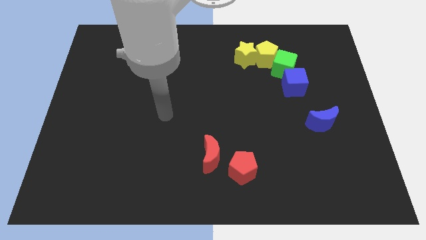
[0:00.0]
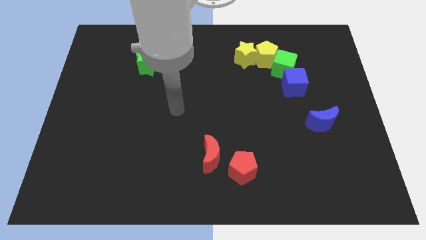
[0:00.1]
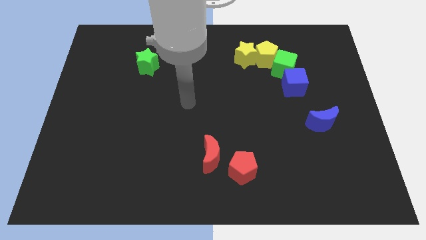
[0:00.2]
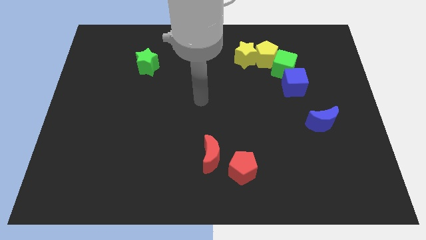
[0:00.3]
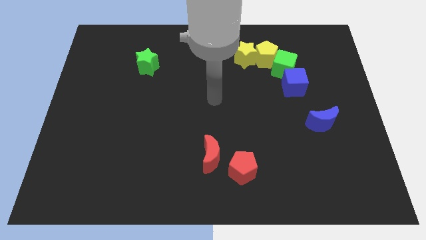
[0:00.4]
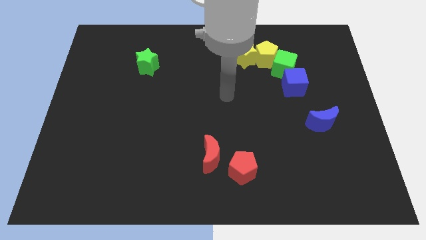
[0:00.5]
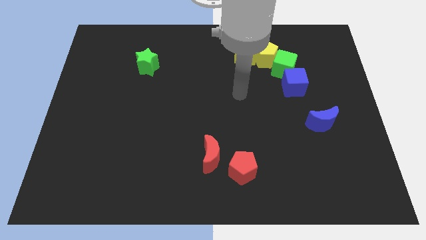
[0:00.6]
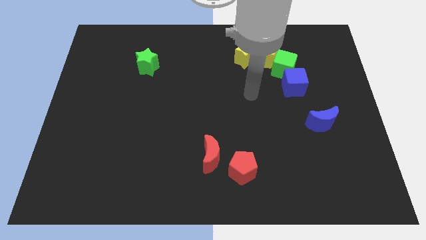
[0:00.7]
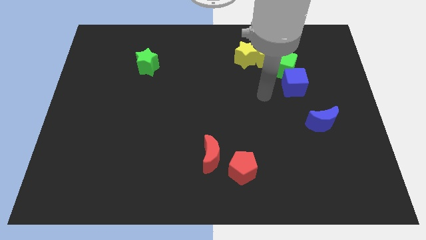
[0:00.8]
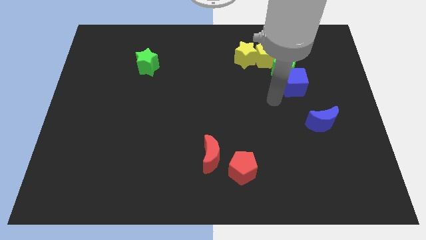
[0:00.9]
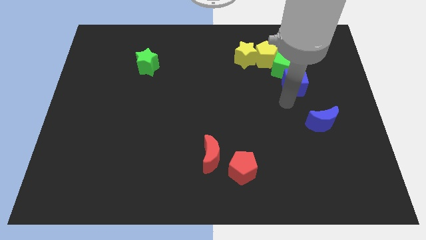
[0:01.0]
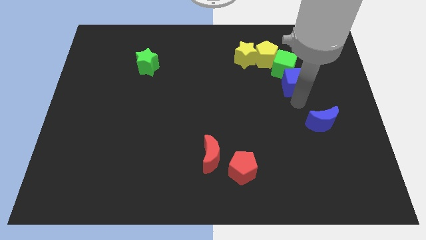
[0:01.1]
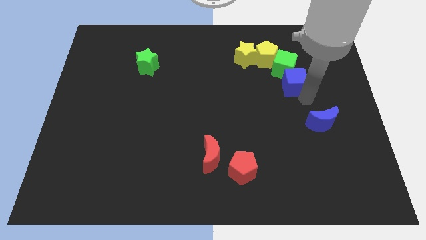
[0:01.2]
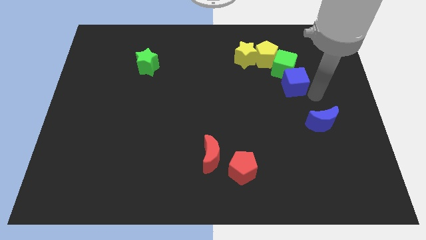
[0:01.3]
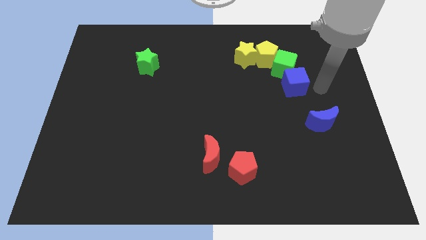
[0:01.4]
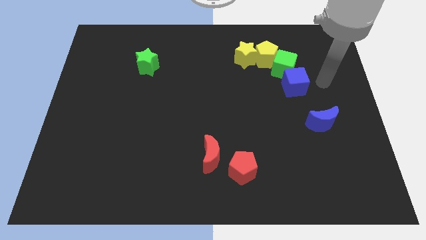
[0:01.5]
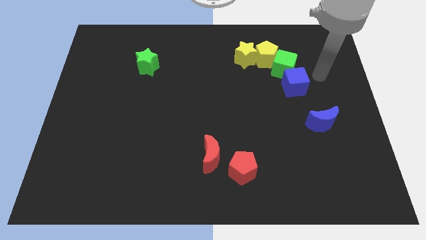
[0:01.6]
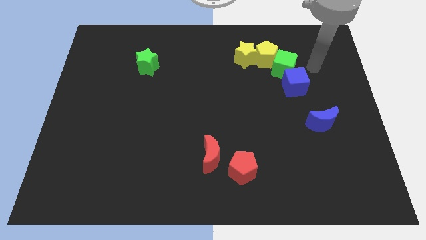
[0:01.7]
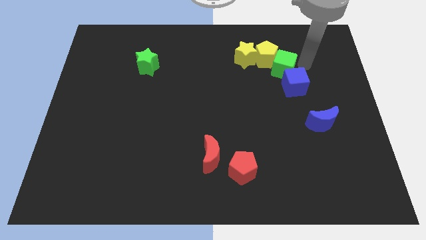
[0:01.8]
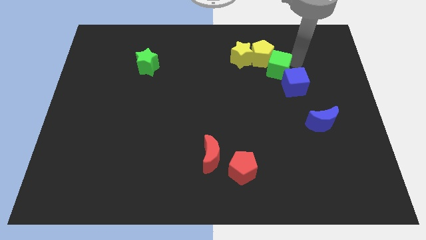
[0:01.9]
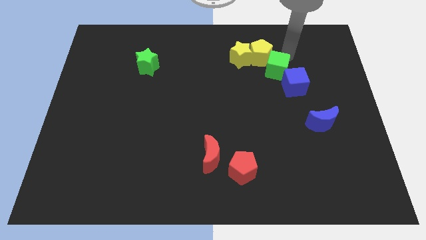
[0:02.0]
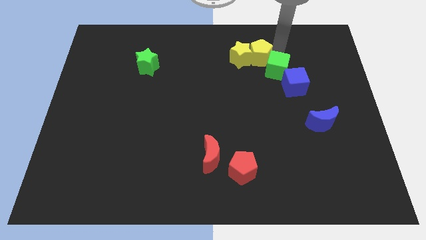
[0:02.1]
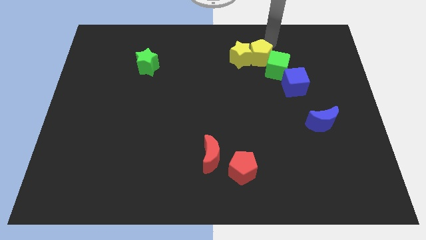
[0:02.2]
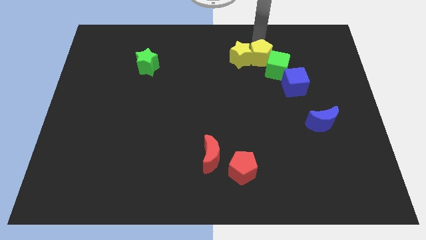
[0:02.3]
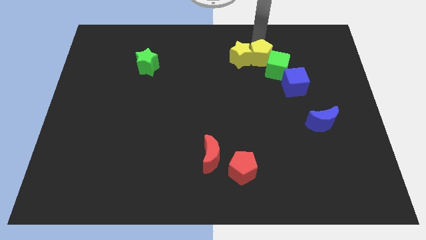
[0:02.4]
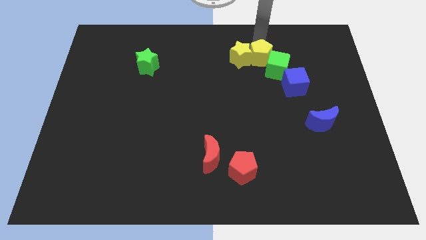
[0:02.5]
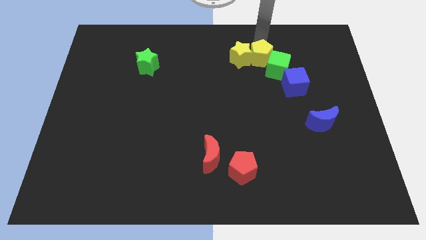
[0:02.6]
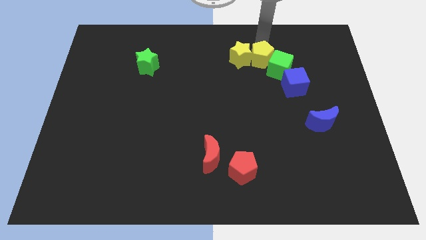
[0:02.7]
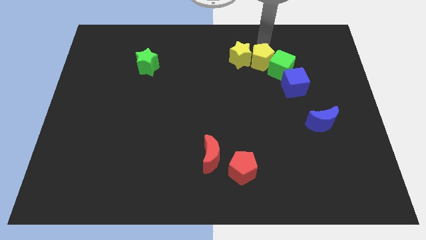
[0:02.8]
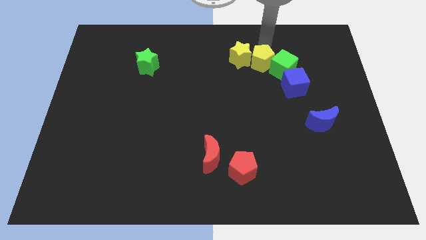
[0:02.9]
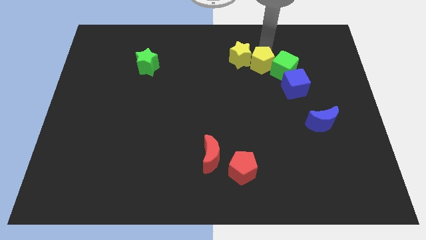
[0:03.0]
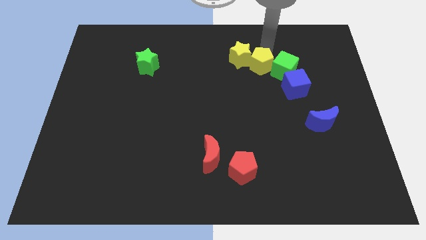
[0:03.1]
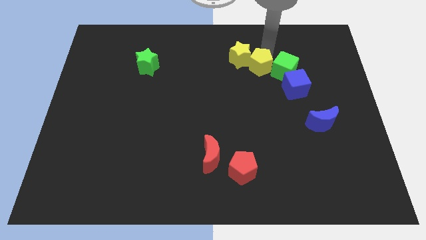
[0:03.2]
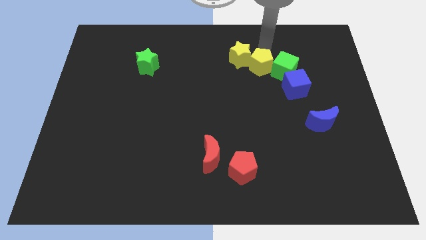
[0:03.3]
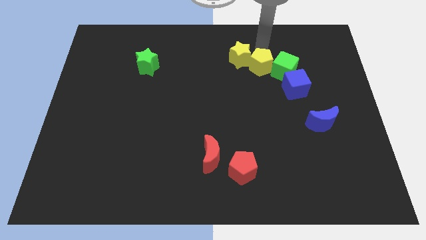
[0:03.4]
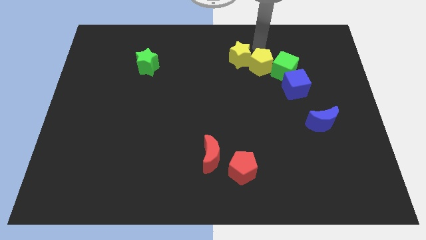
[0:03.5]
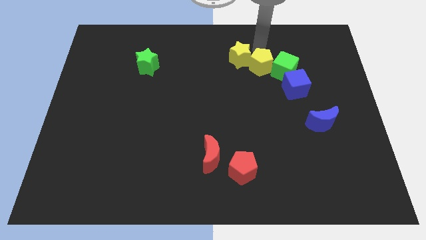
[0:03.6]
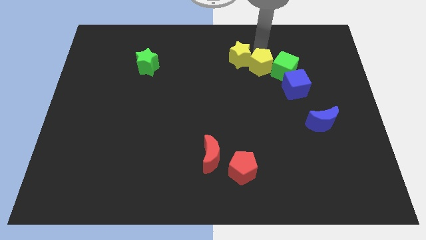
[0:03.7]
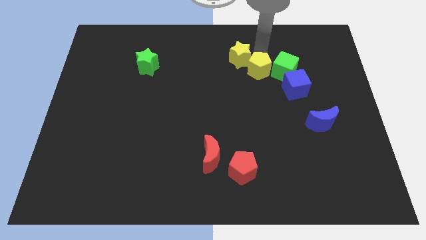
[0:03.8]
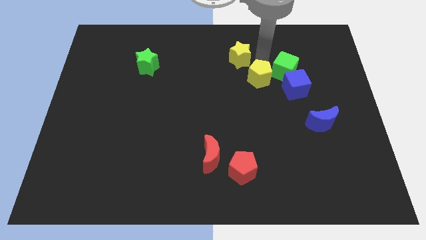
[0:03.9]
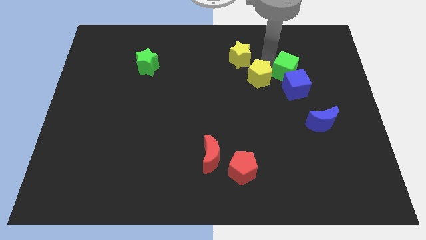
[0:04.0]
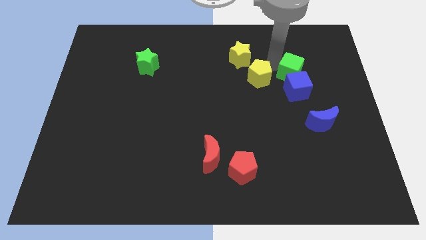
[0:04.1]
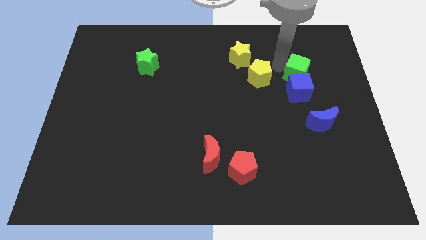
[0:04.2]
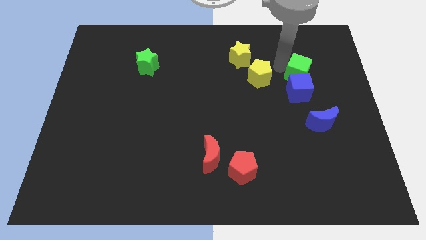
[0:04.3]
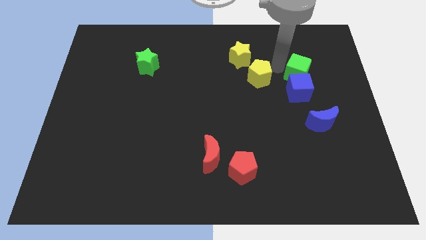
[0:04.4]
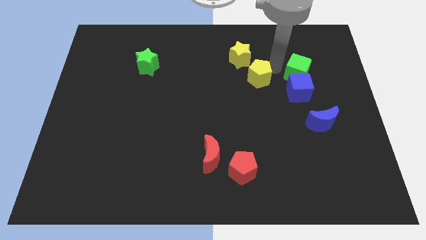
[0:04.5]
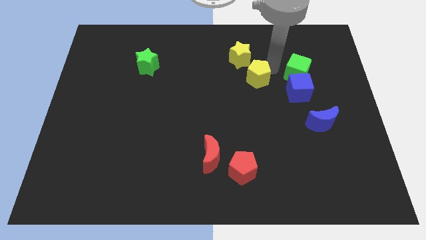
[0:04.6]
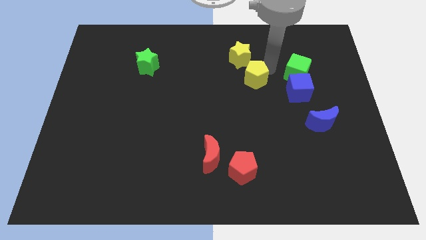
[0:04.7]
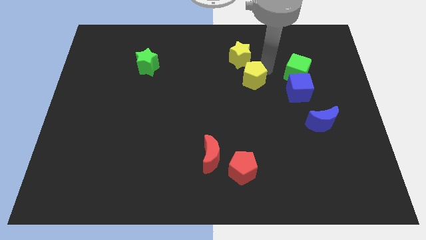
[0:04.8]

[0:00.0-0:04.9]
put the yellow pentagon to the middle

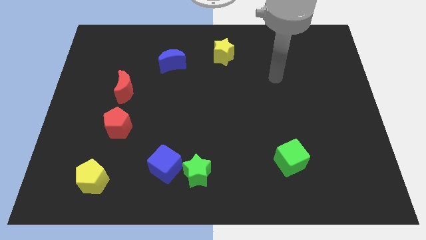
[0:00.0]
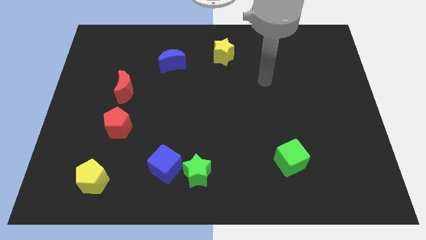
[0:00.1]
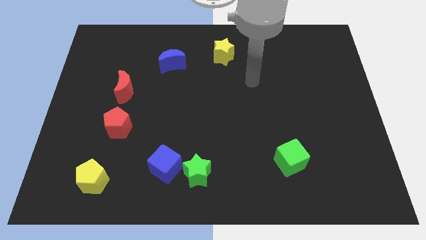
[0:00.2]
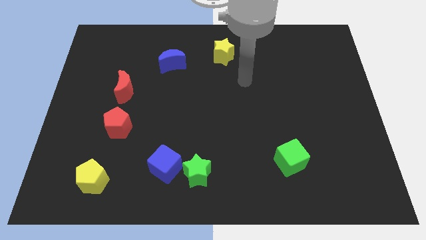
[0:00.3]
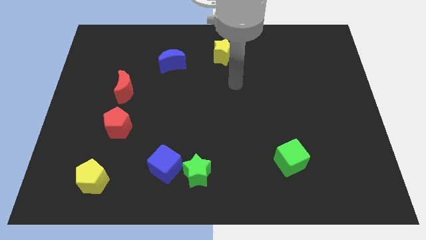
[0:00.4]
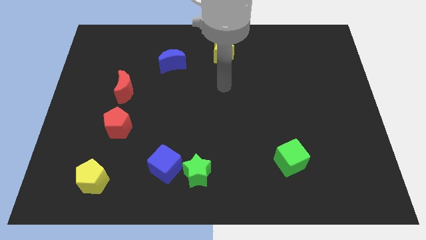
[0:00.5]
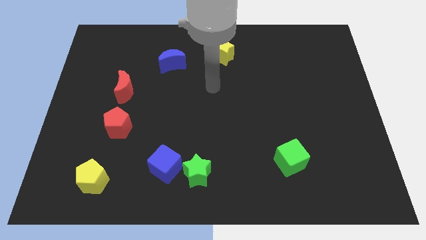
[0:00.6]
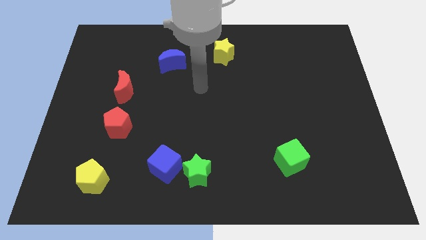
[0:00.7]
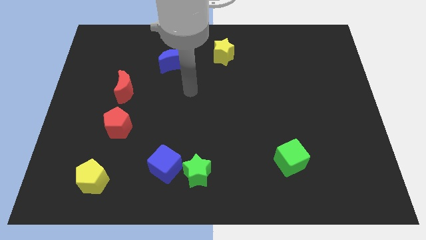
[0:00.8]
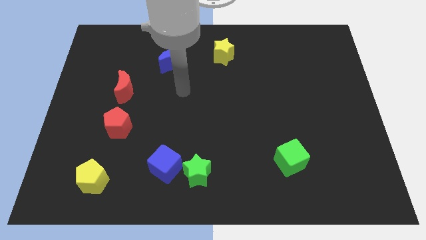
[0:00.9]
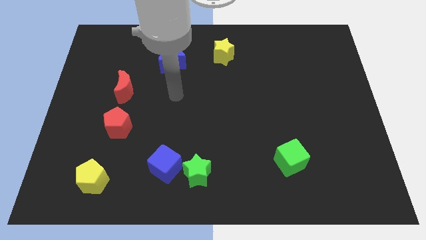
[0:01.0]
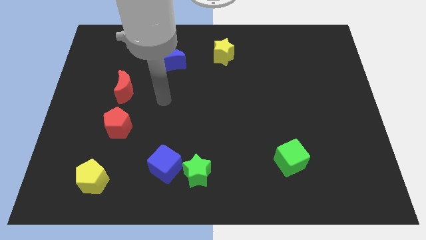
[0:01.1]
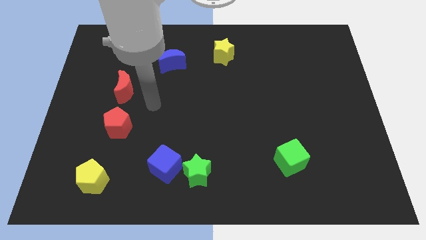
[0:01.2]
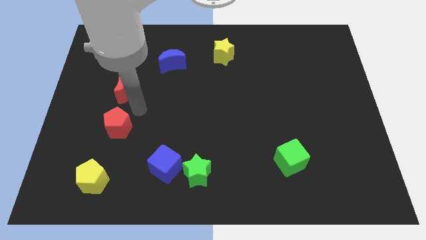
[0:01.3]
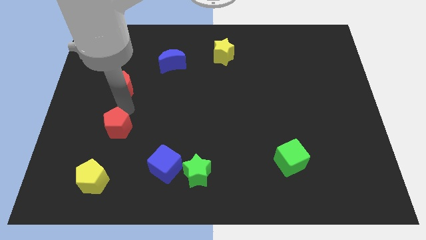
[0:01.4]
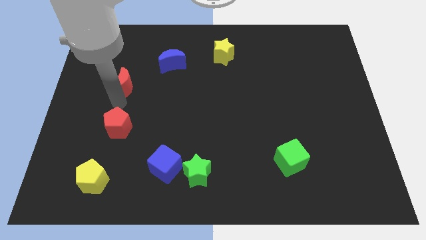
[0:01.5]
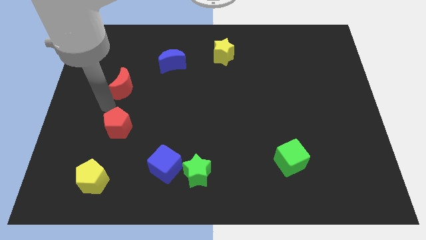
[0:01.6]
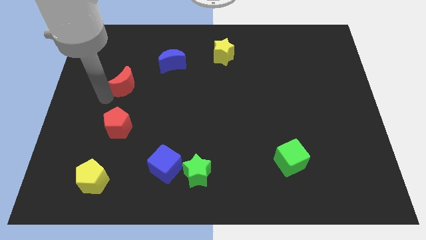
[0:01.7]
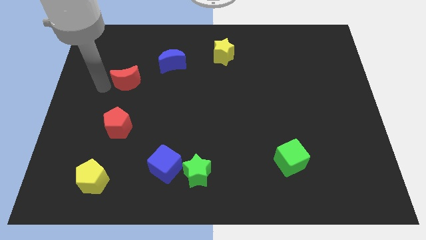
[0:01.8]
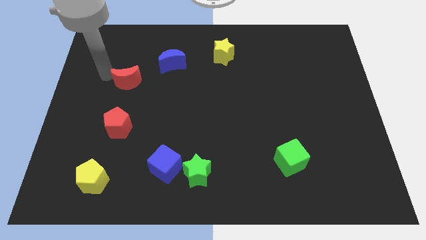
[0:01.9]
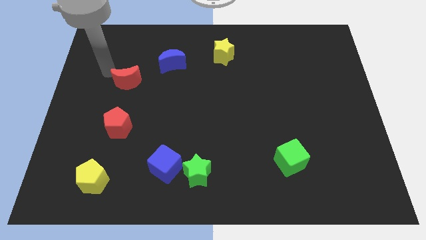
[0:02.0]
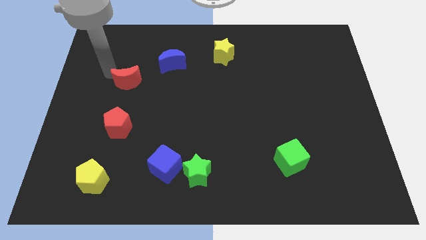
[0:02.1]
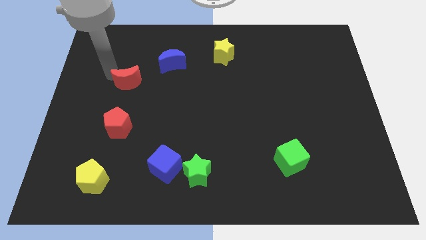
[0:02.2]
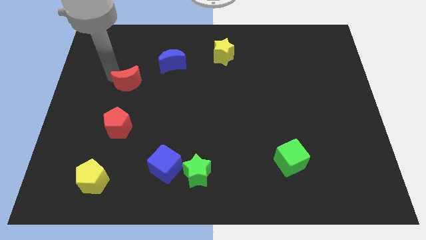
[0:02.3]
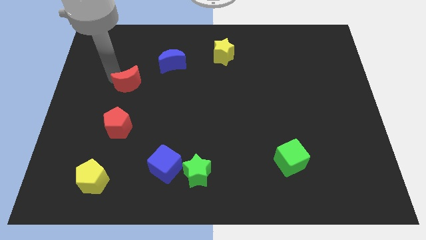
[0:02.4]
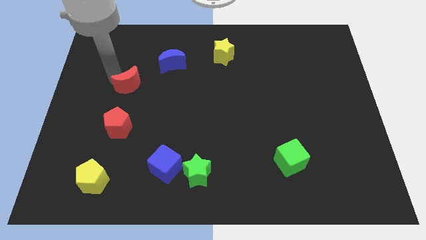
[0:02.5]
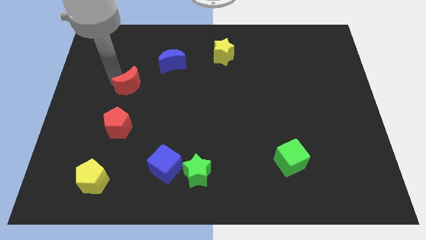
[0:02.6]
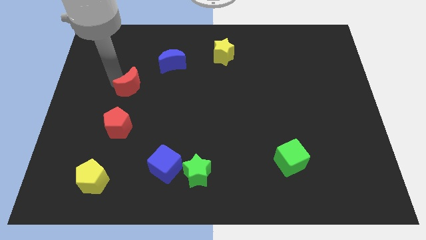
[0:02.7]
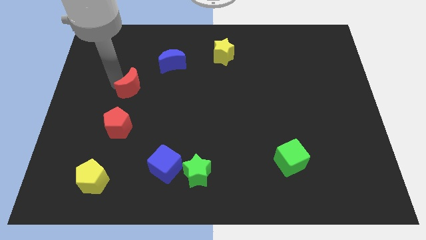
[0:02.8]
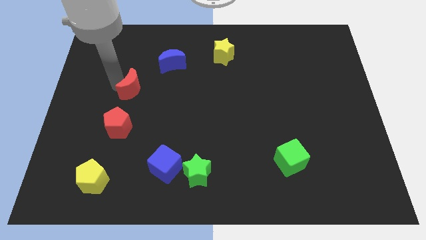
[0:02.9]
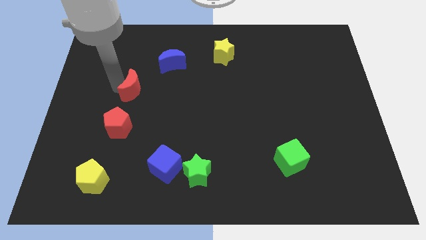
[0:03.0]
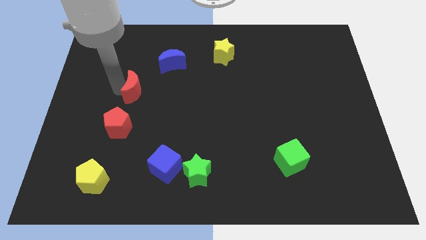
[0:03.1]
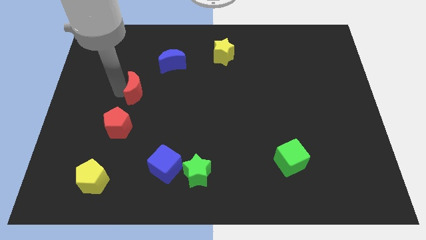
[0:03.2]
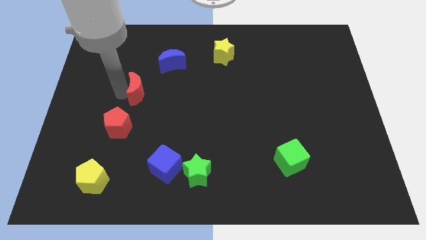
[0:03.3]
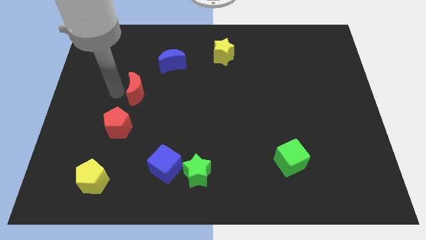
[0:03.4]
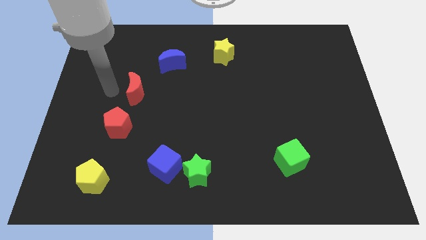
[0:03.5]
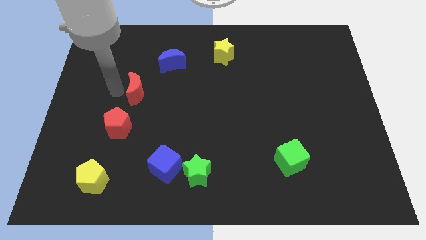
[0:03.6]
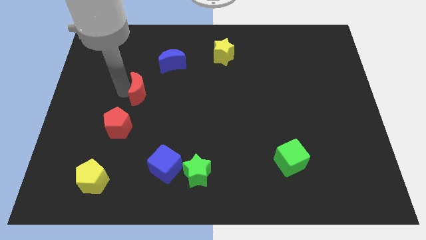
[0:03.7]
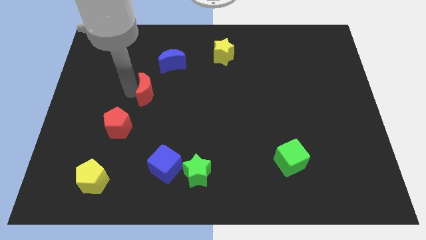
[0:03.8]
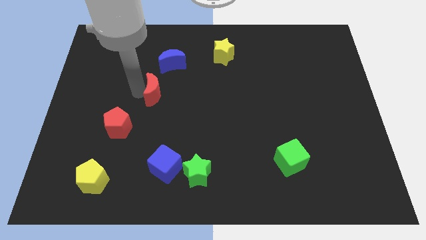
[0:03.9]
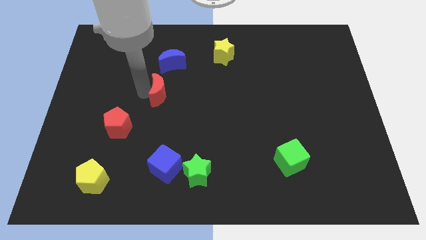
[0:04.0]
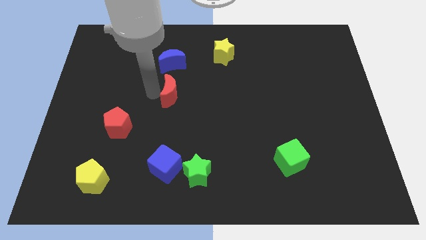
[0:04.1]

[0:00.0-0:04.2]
slide the red moon to the center
